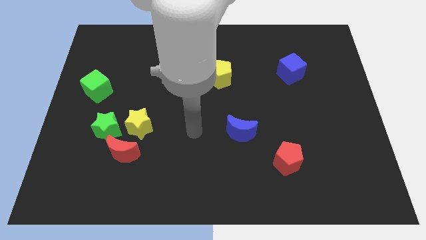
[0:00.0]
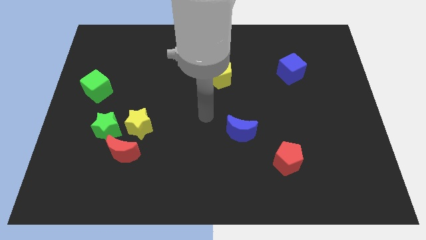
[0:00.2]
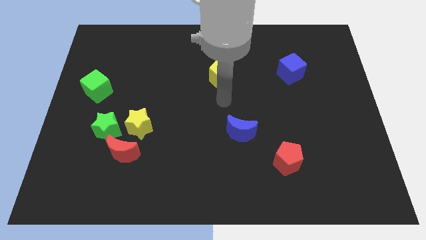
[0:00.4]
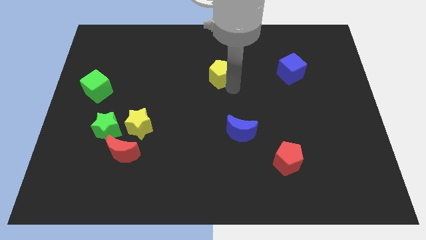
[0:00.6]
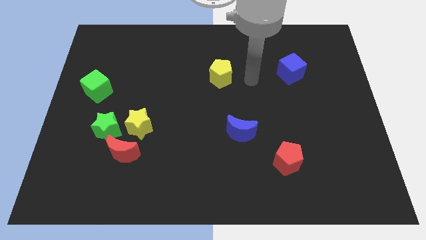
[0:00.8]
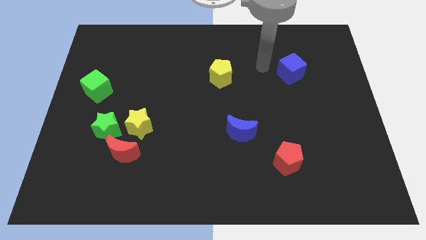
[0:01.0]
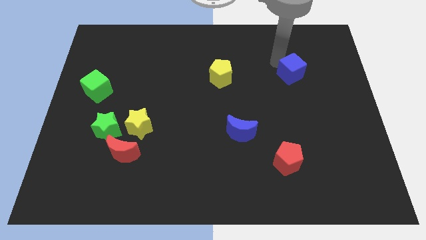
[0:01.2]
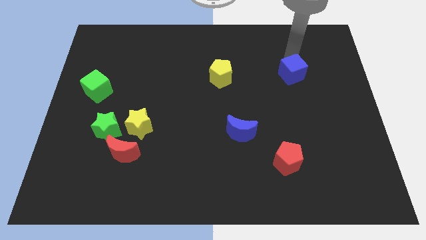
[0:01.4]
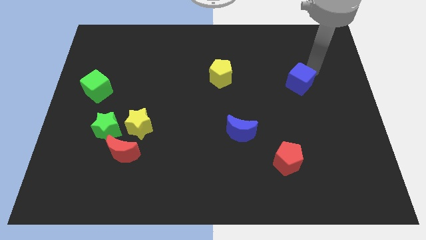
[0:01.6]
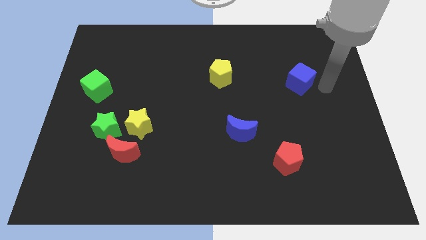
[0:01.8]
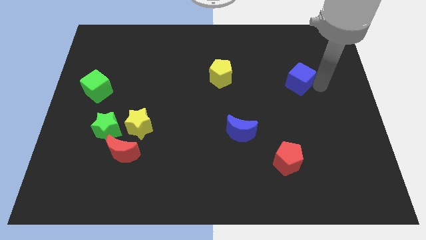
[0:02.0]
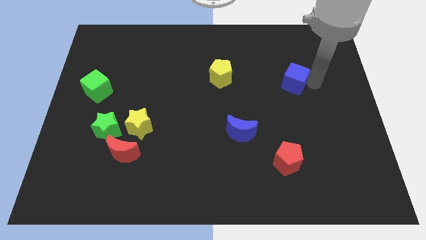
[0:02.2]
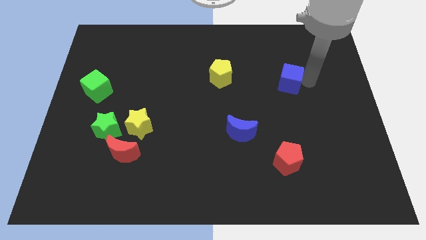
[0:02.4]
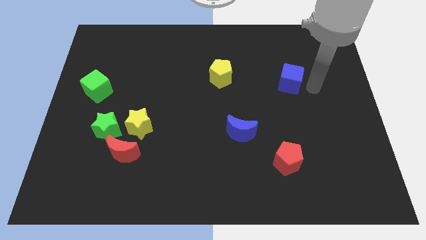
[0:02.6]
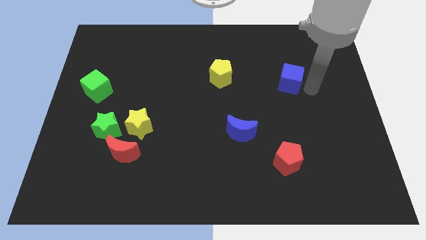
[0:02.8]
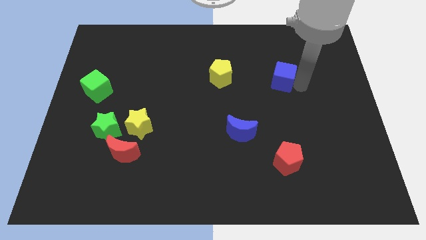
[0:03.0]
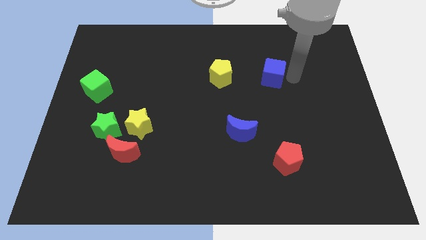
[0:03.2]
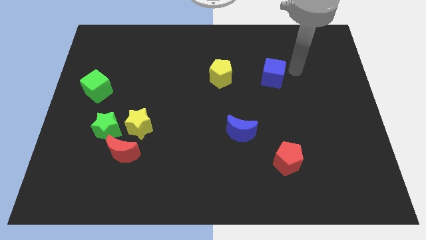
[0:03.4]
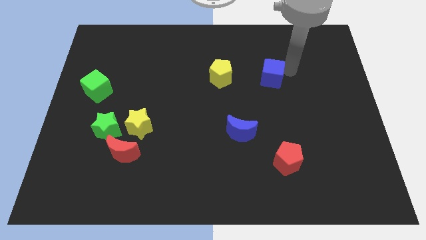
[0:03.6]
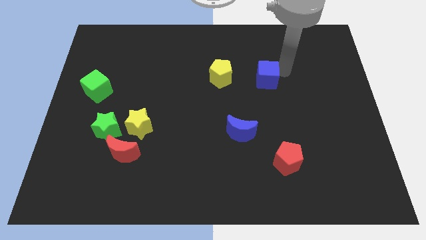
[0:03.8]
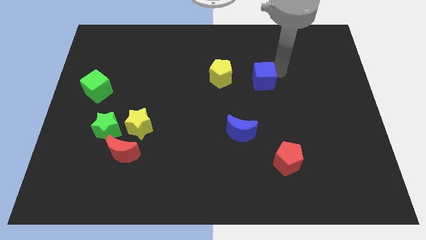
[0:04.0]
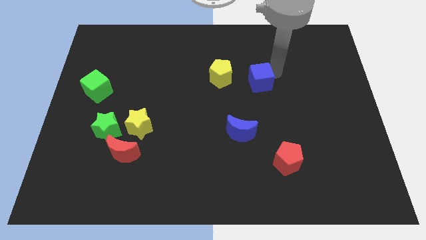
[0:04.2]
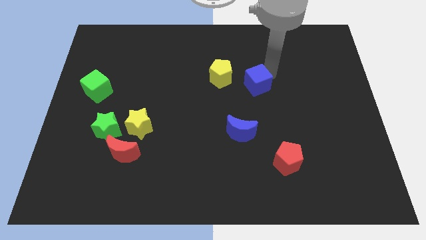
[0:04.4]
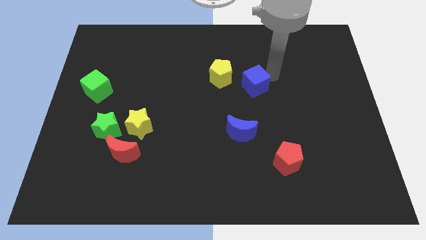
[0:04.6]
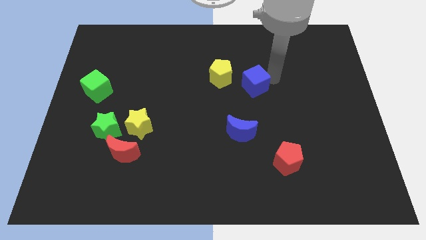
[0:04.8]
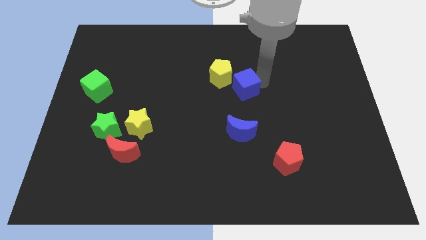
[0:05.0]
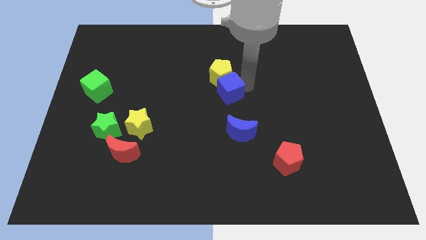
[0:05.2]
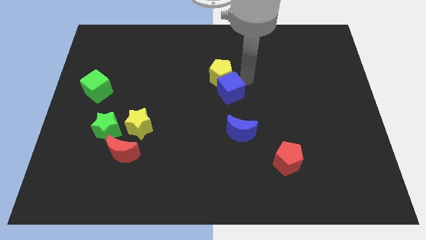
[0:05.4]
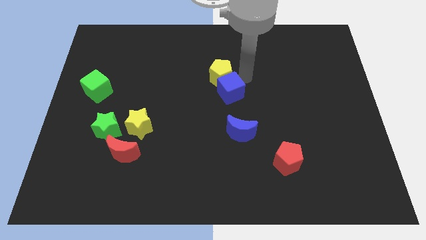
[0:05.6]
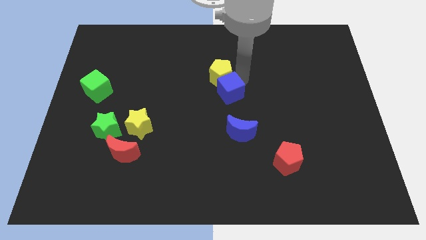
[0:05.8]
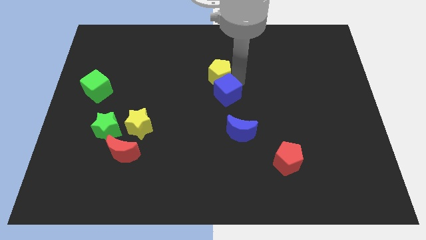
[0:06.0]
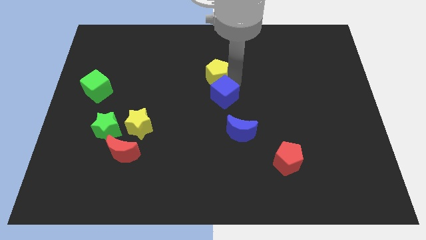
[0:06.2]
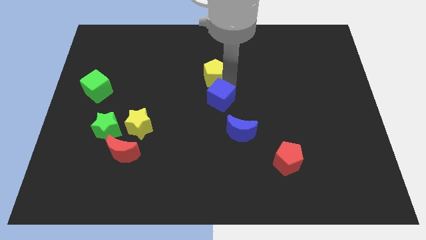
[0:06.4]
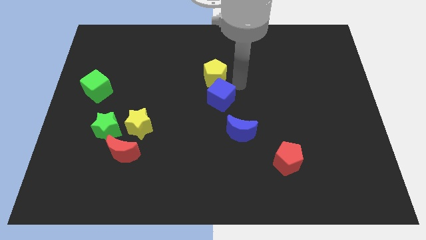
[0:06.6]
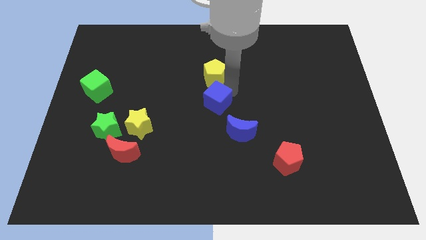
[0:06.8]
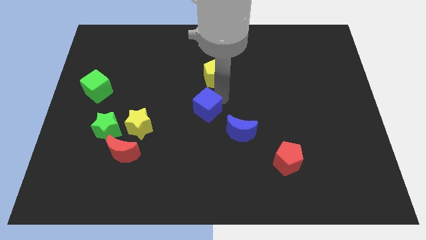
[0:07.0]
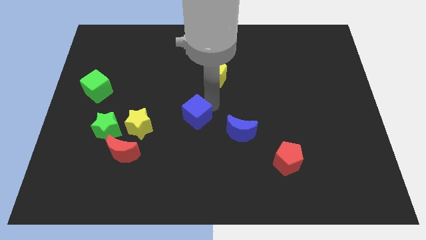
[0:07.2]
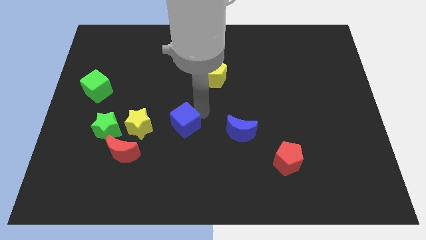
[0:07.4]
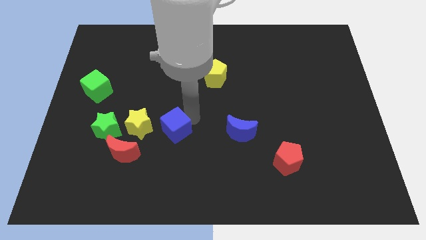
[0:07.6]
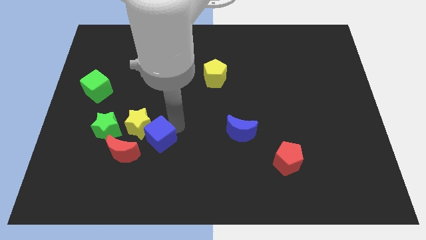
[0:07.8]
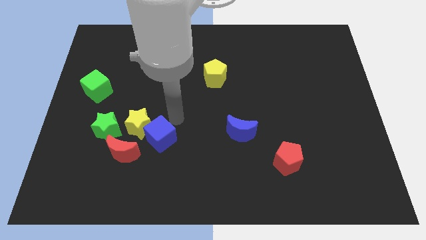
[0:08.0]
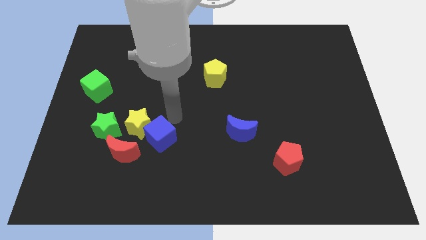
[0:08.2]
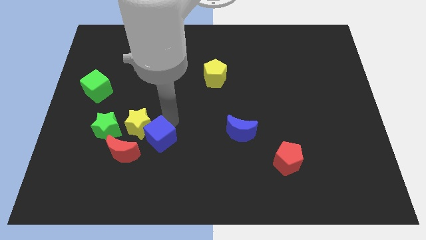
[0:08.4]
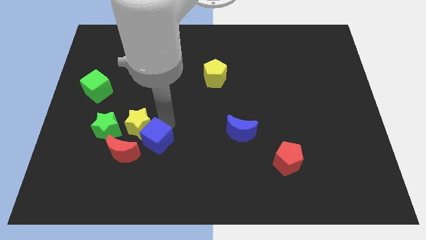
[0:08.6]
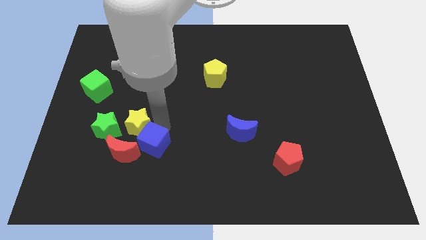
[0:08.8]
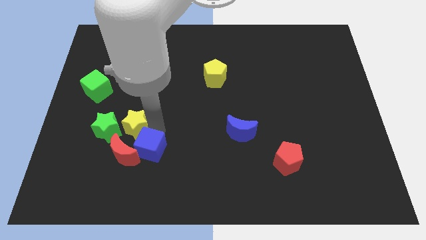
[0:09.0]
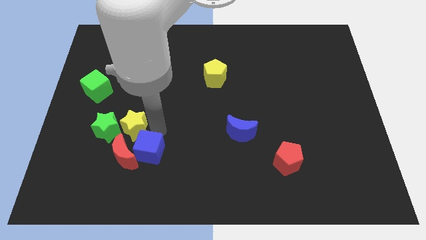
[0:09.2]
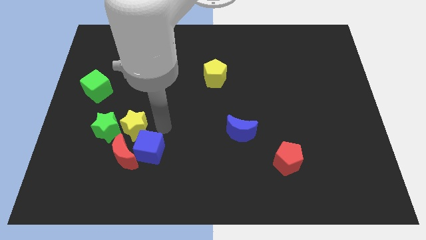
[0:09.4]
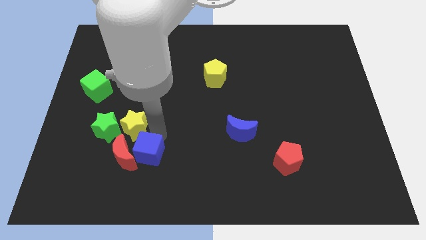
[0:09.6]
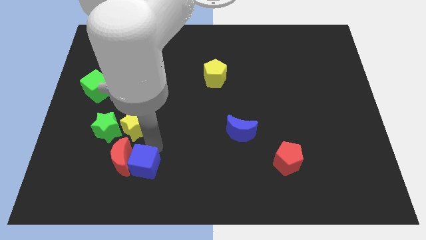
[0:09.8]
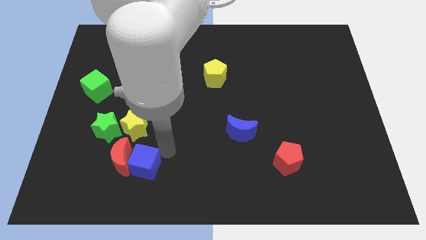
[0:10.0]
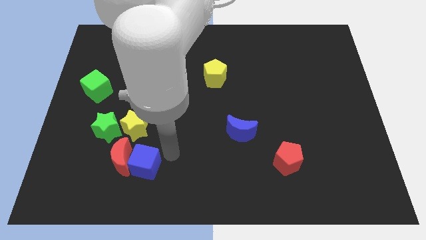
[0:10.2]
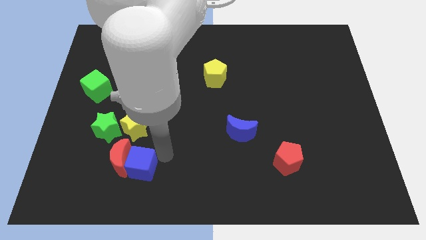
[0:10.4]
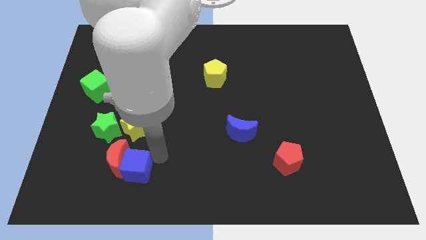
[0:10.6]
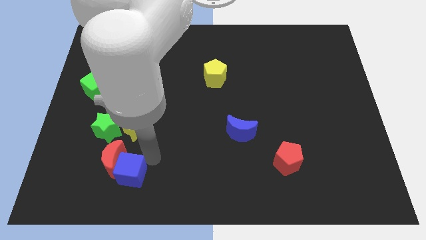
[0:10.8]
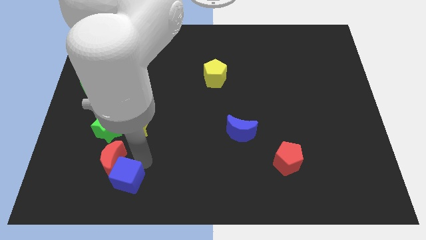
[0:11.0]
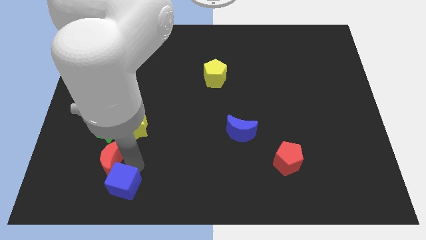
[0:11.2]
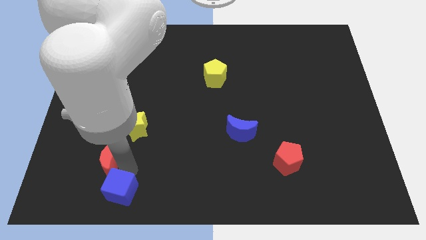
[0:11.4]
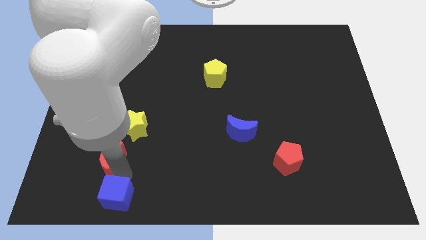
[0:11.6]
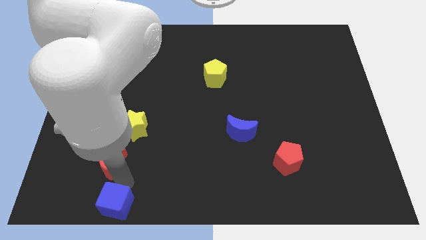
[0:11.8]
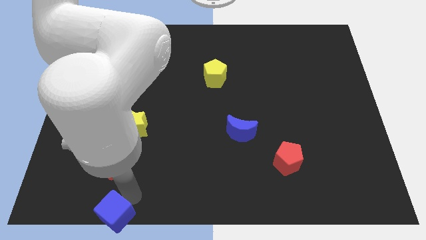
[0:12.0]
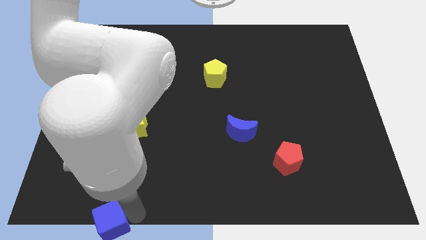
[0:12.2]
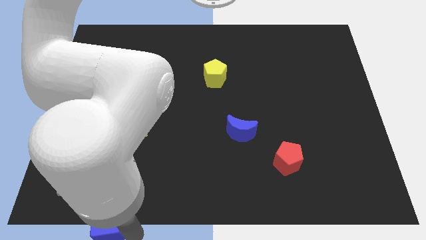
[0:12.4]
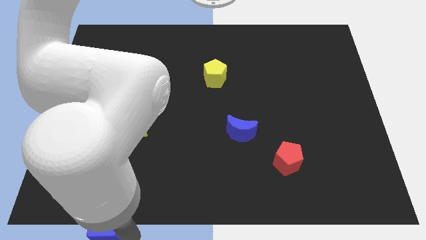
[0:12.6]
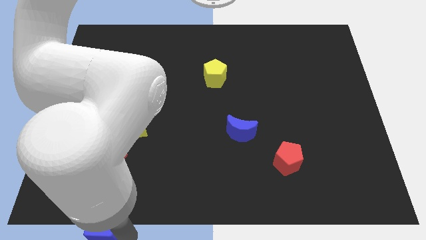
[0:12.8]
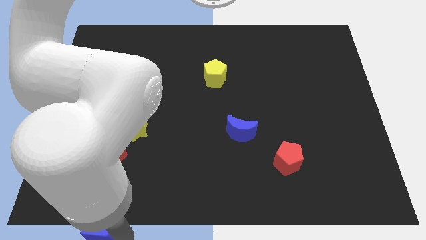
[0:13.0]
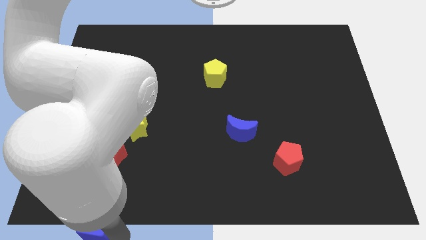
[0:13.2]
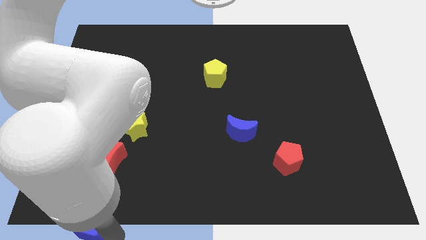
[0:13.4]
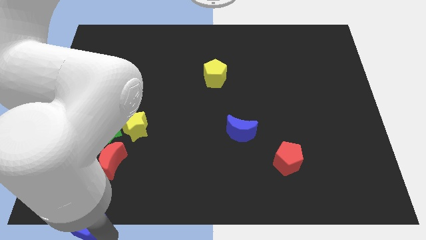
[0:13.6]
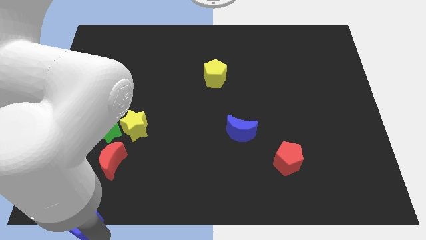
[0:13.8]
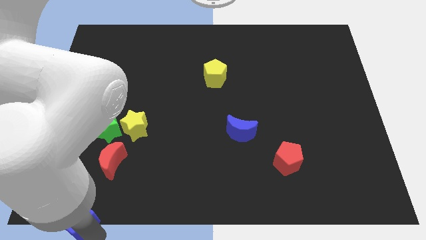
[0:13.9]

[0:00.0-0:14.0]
put the blue cube to the bottom left corner
